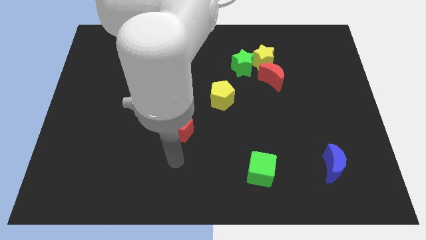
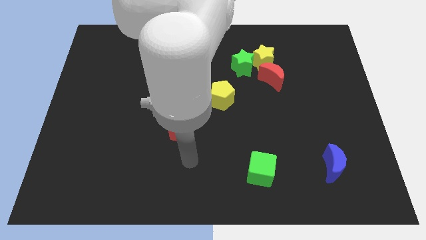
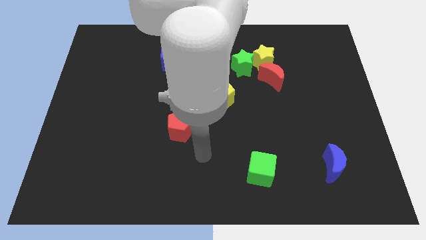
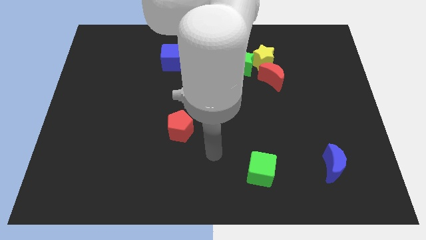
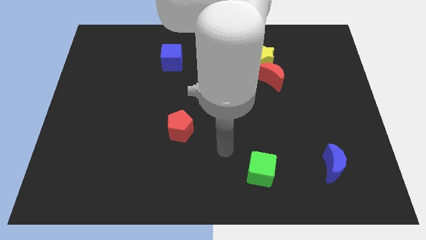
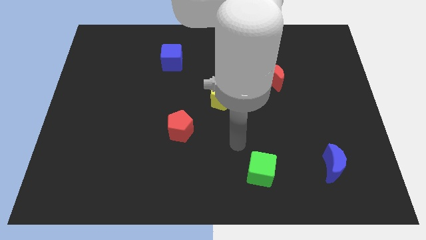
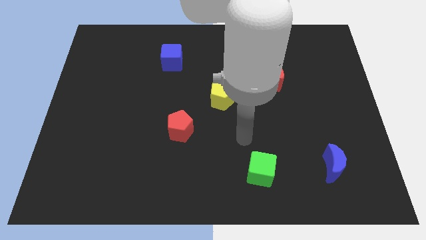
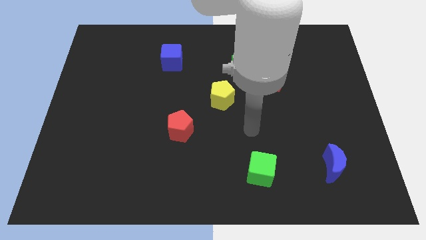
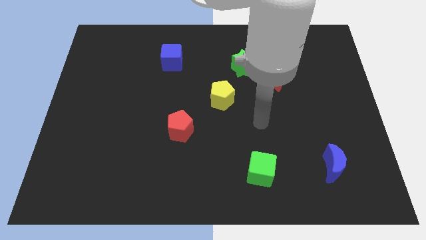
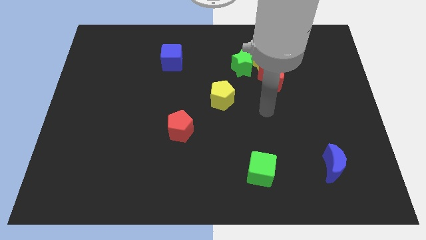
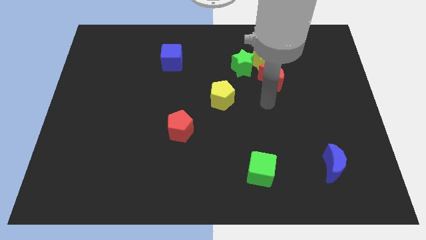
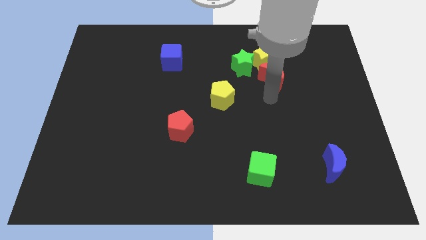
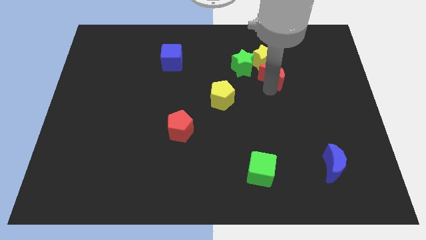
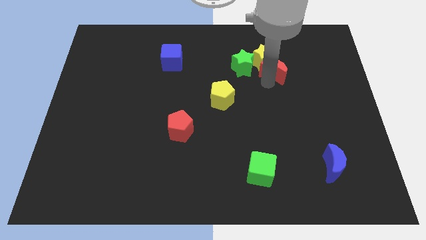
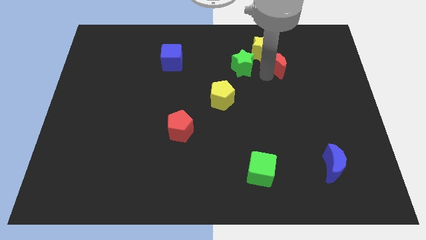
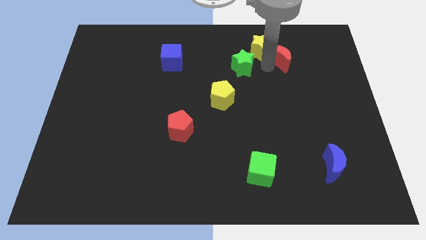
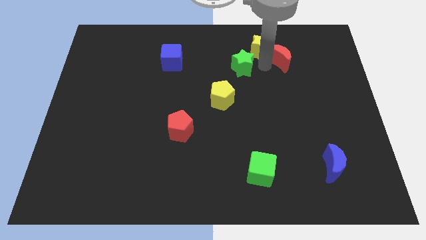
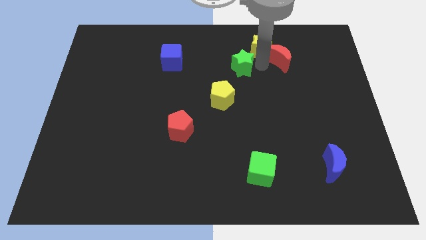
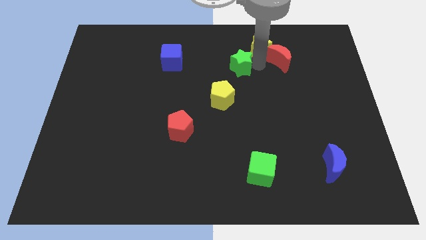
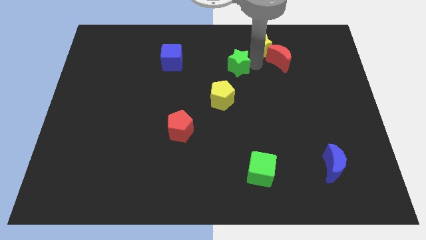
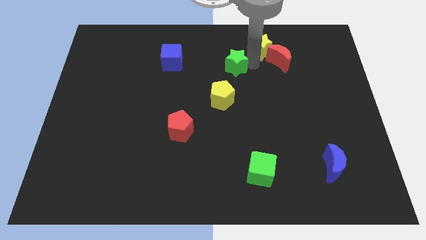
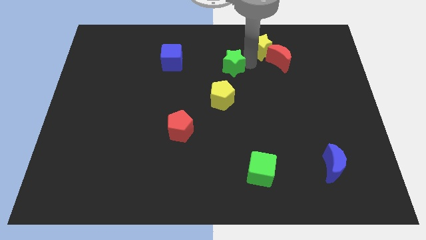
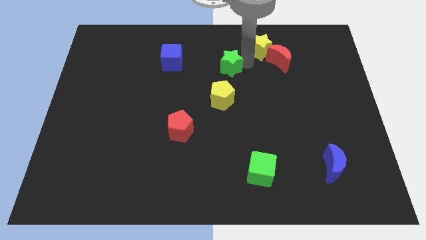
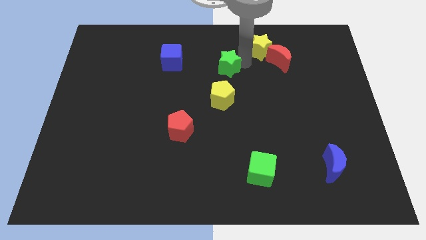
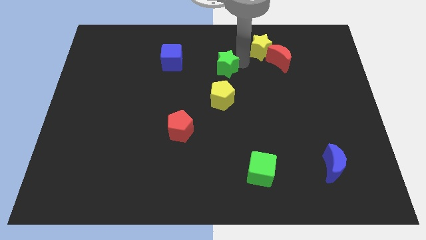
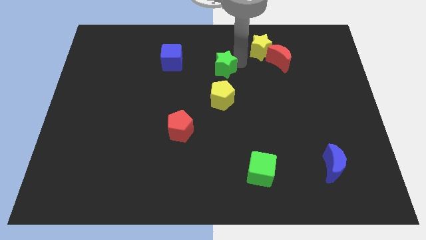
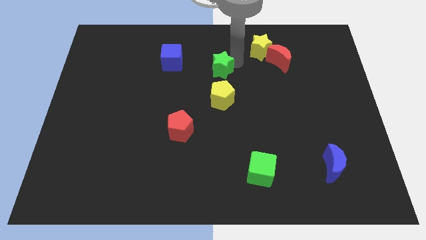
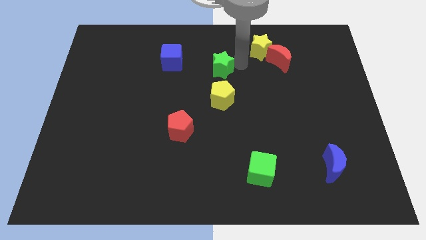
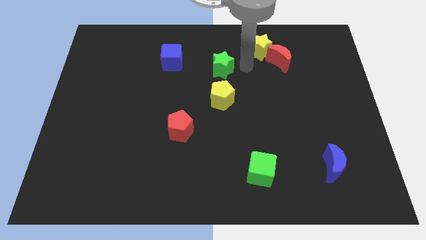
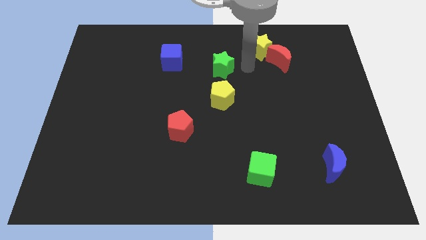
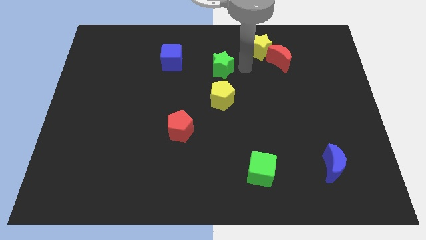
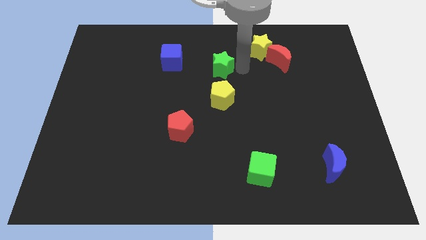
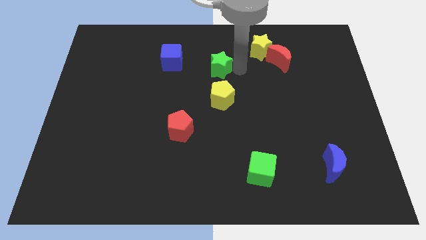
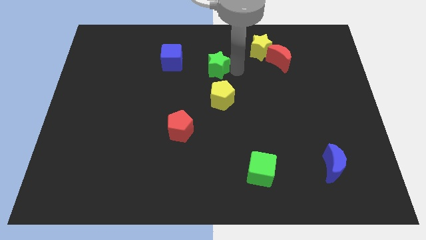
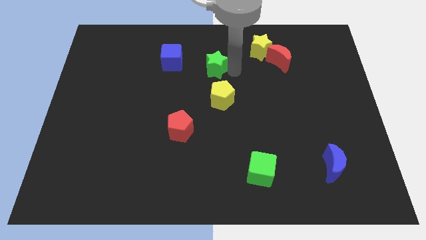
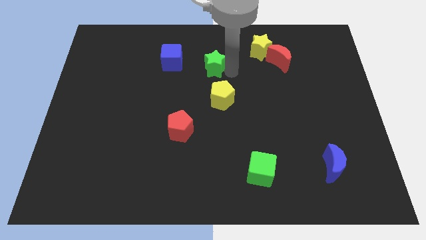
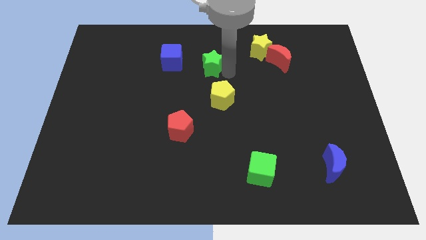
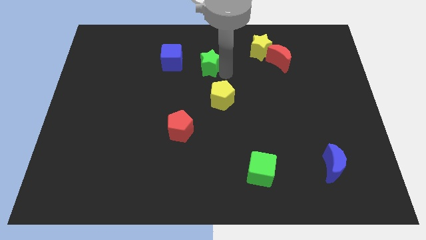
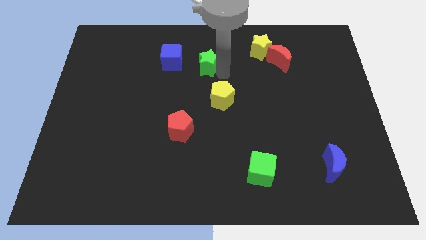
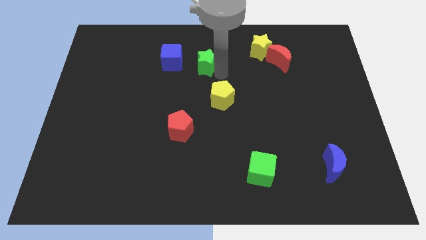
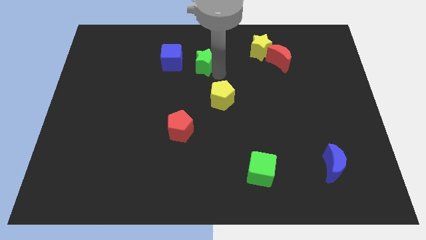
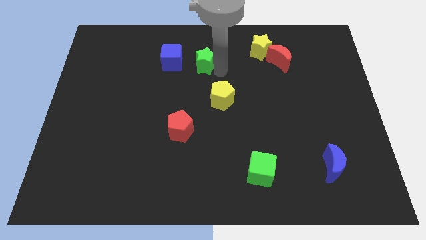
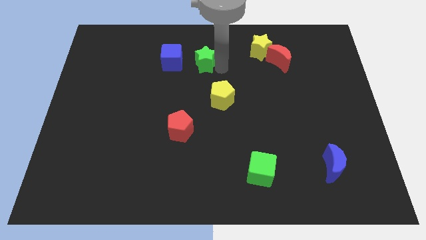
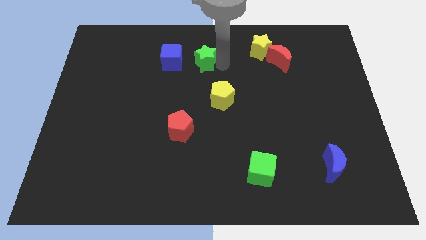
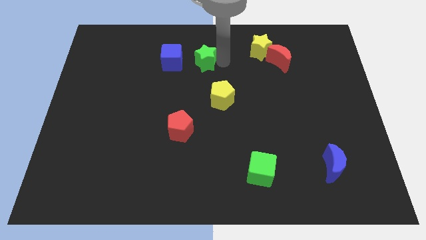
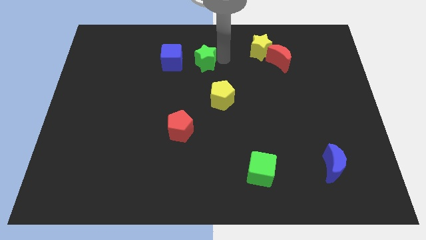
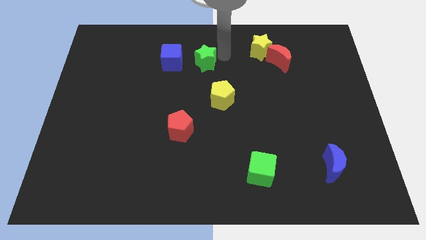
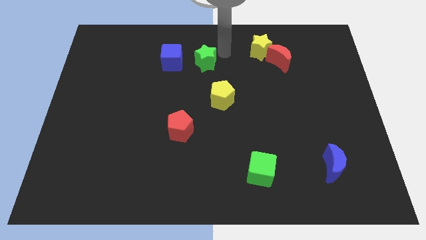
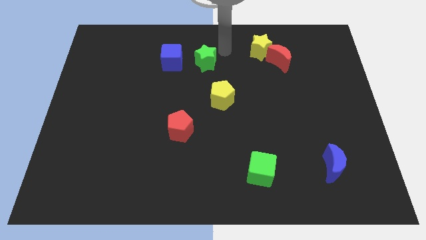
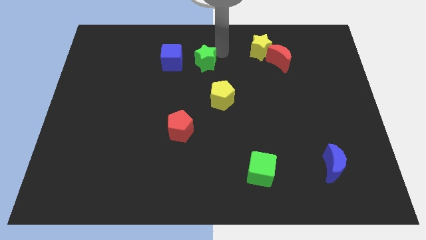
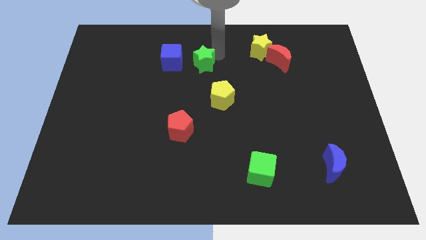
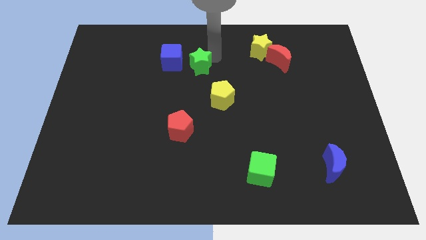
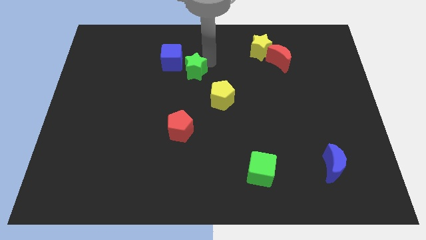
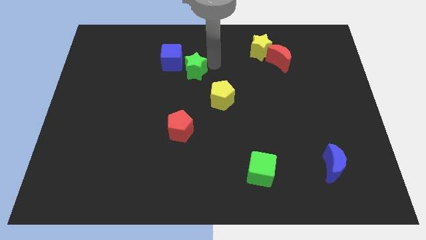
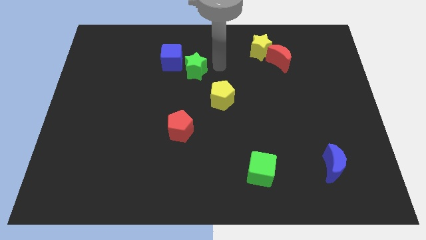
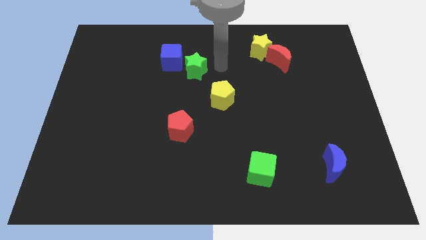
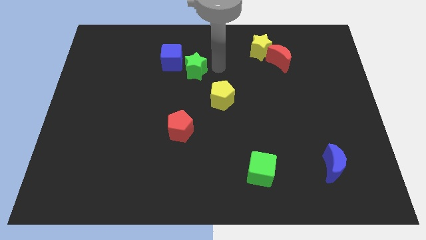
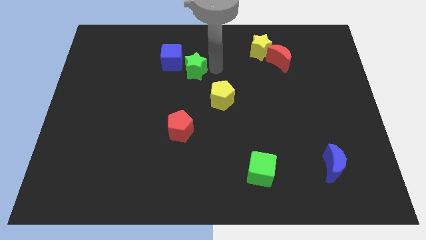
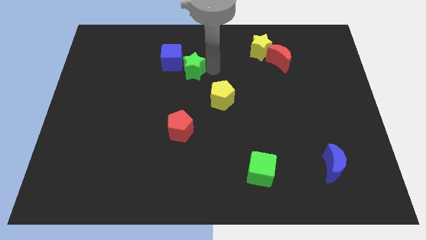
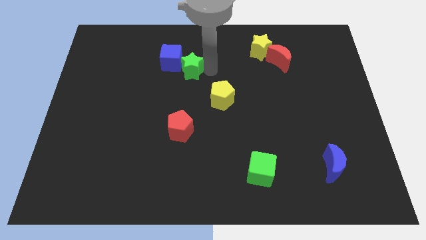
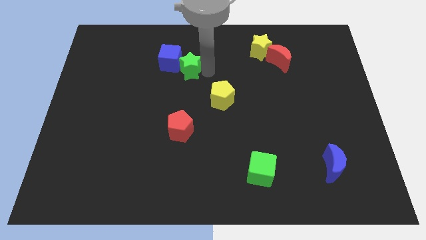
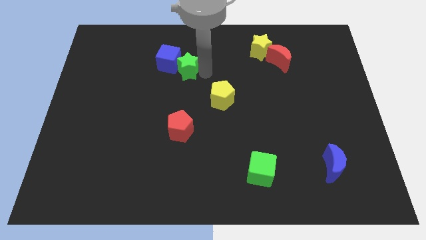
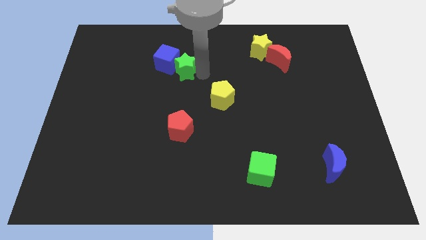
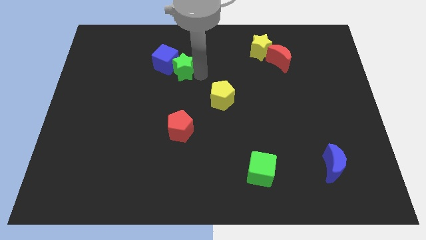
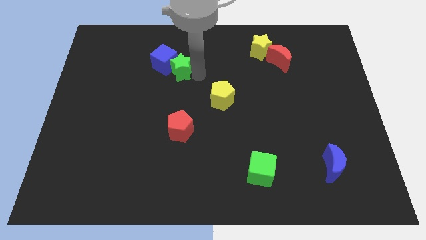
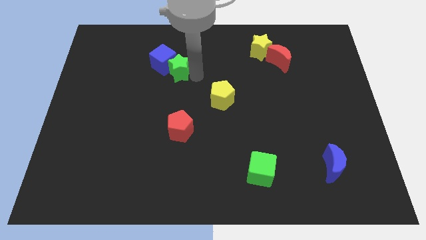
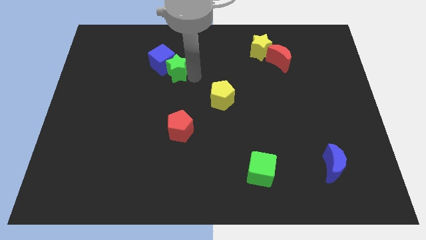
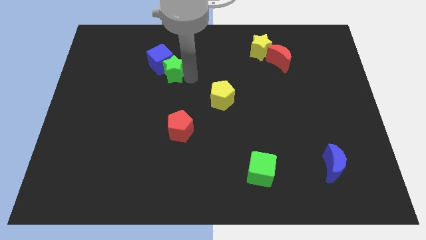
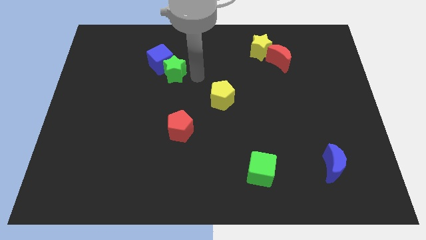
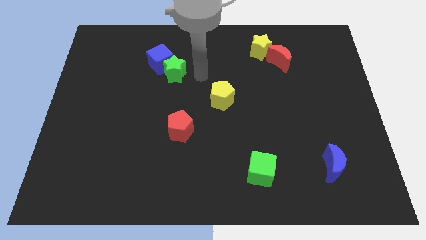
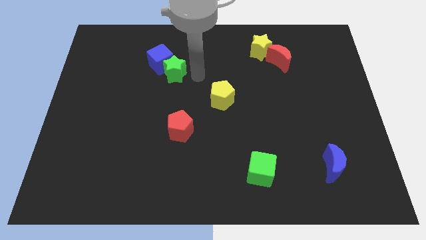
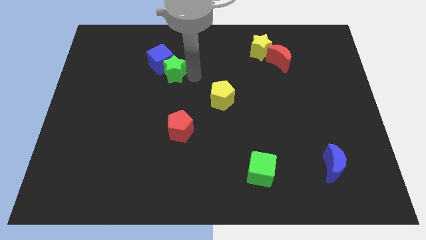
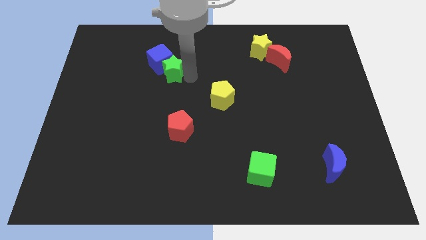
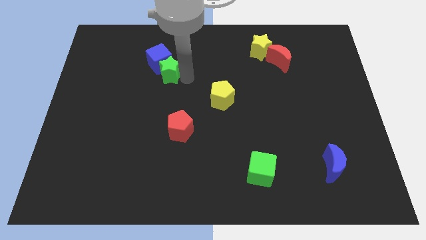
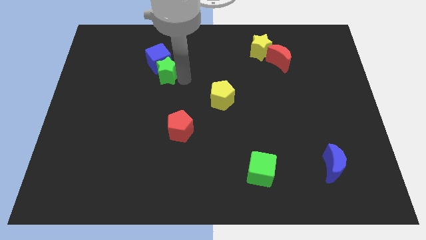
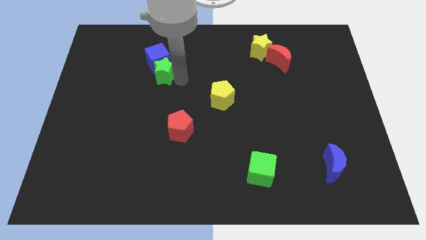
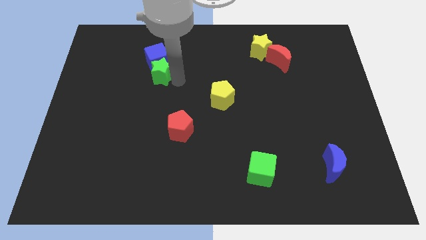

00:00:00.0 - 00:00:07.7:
push the green star left

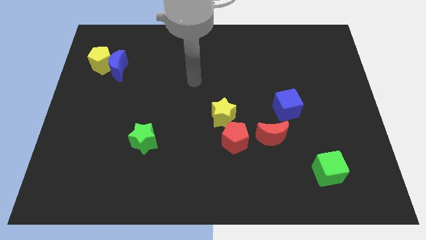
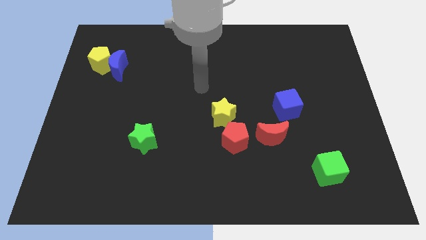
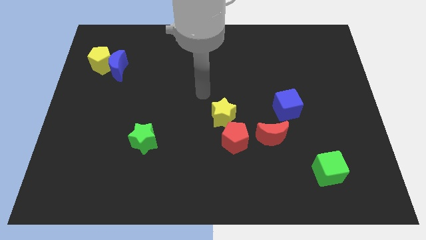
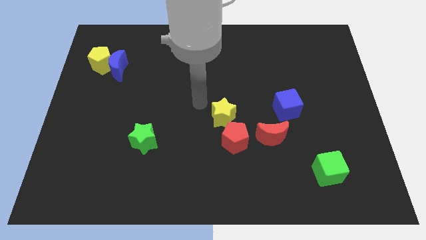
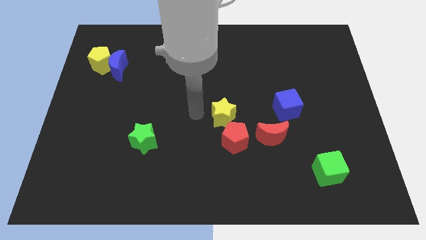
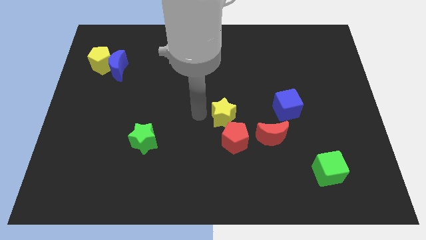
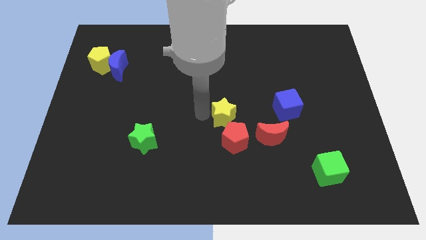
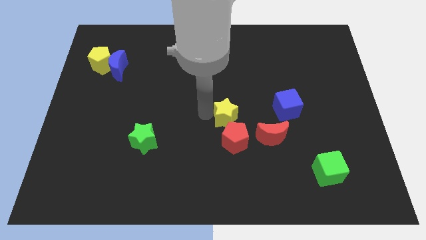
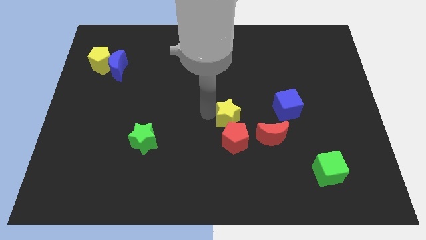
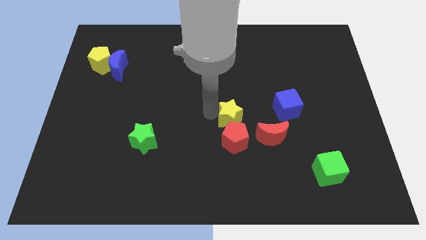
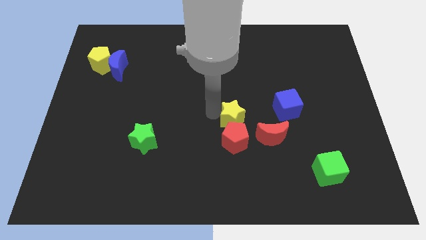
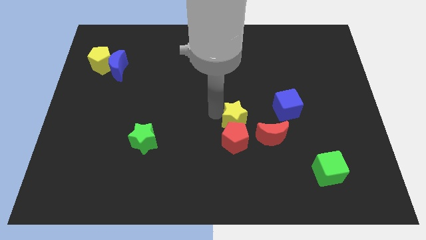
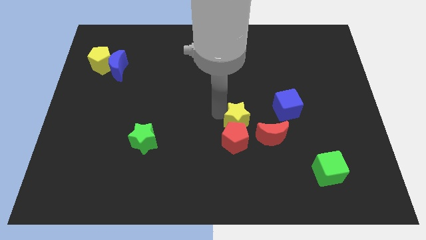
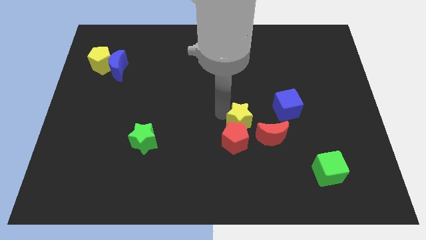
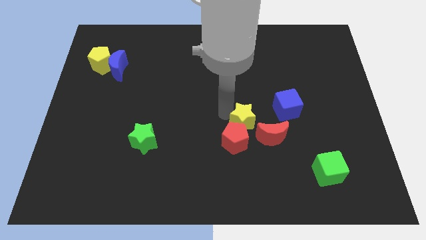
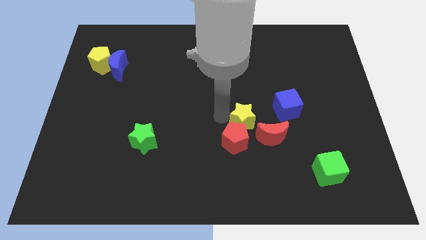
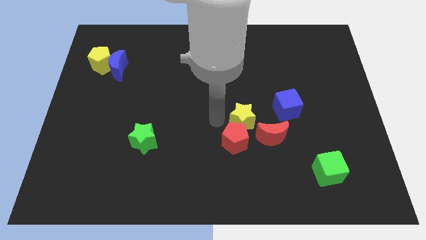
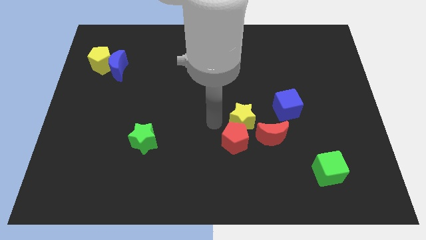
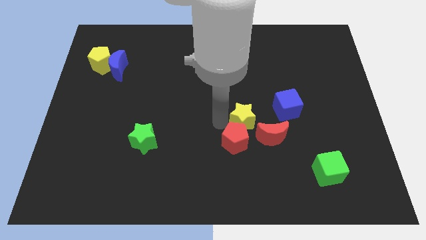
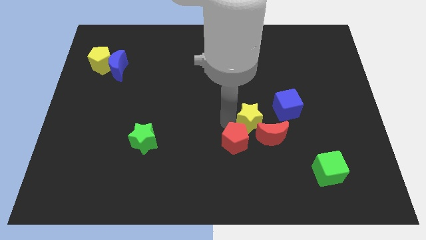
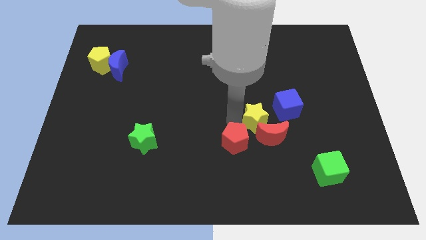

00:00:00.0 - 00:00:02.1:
push the yellow star a little to the right
